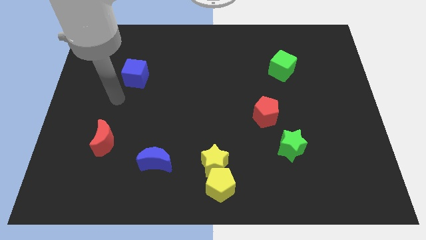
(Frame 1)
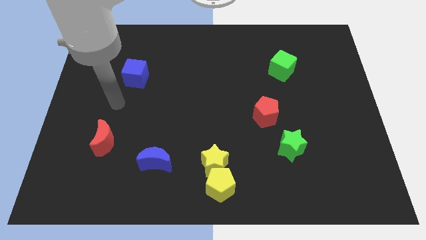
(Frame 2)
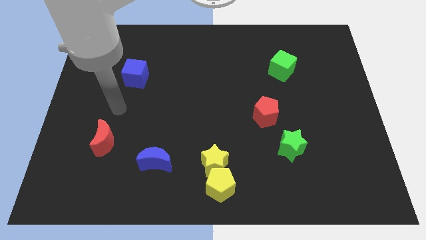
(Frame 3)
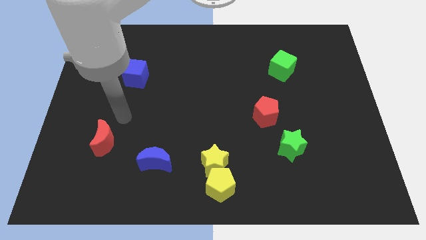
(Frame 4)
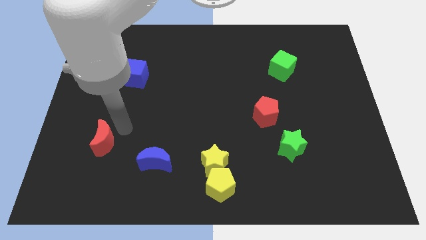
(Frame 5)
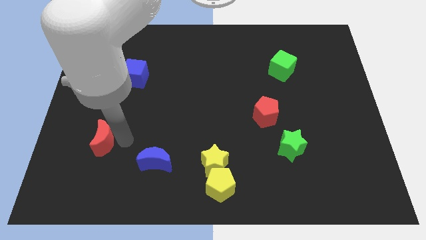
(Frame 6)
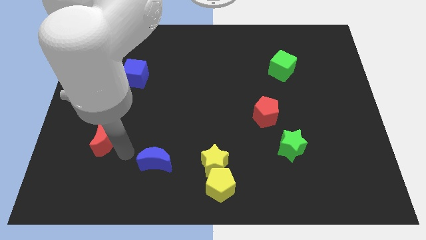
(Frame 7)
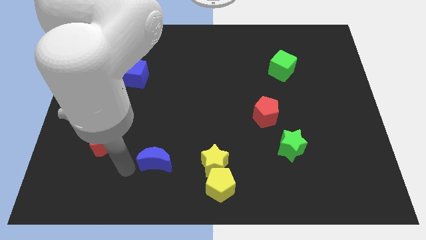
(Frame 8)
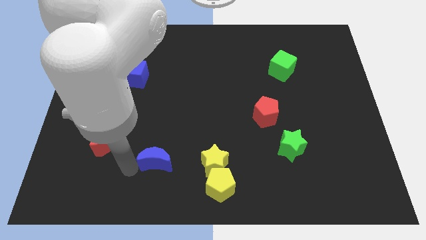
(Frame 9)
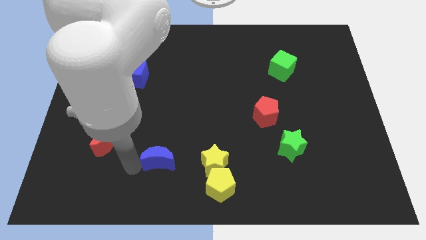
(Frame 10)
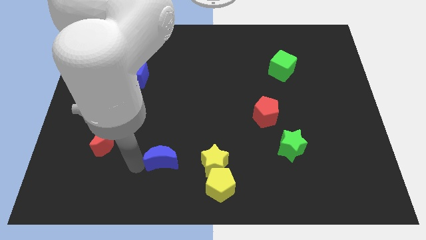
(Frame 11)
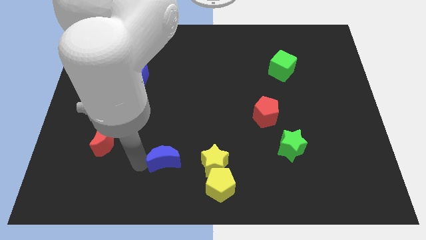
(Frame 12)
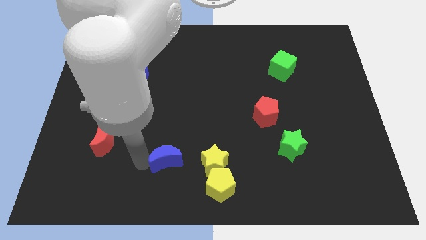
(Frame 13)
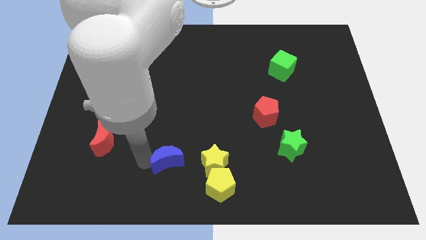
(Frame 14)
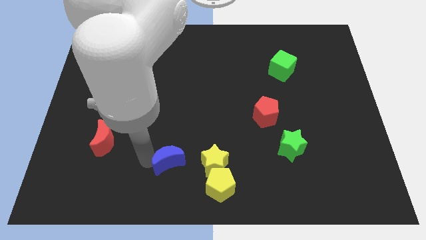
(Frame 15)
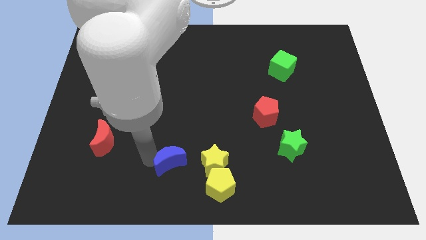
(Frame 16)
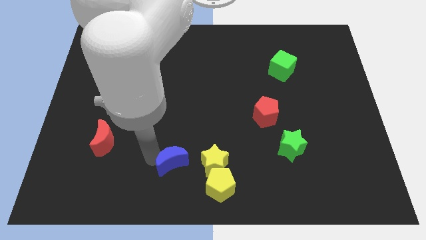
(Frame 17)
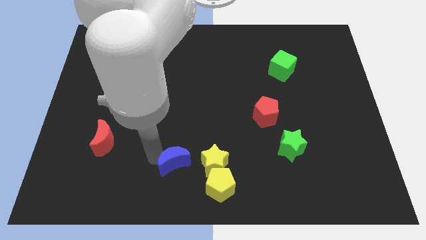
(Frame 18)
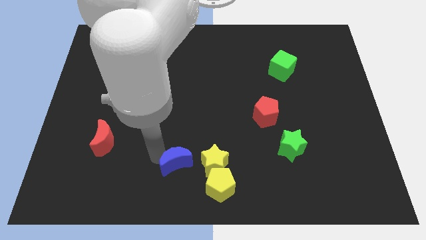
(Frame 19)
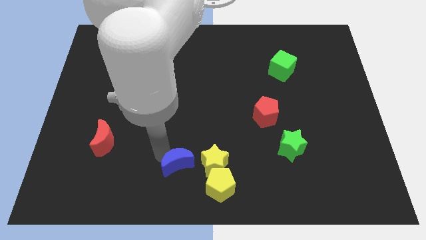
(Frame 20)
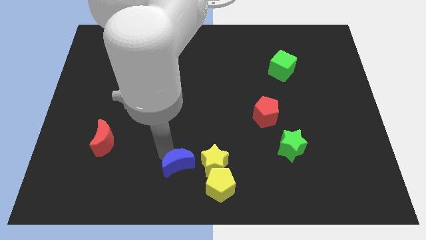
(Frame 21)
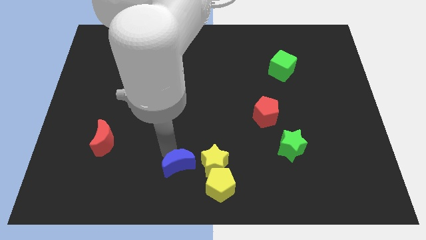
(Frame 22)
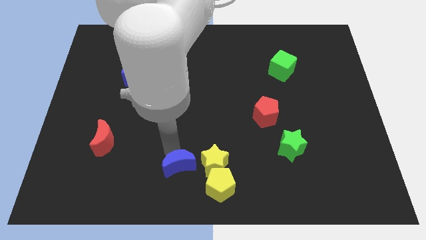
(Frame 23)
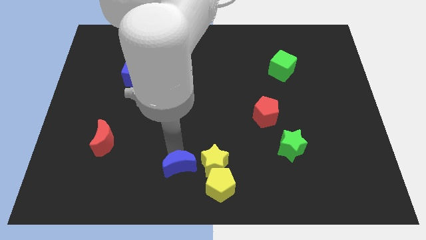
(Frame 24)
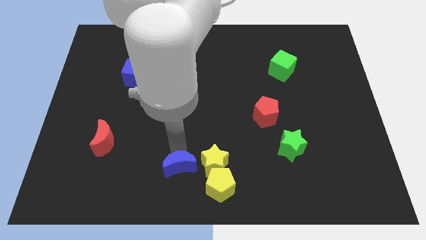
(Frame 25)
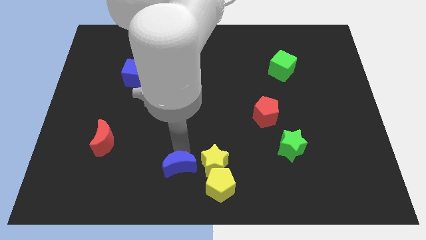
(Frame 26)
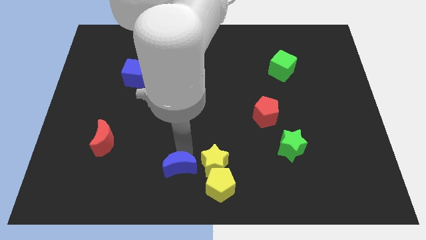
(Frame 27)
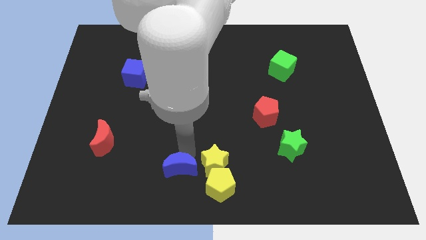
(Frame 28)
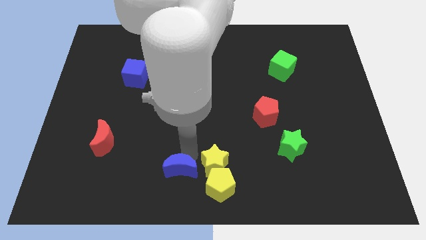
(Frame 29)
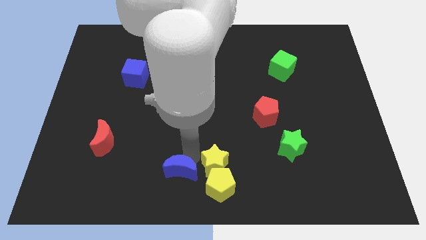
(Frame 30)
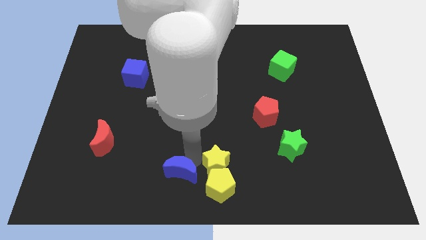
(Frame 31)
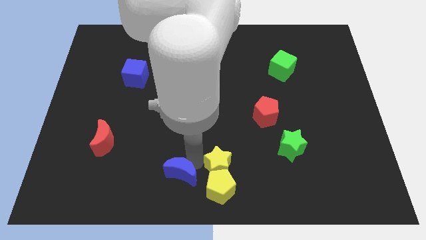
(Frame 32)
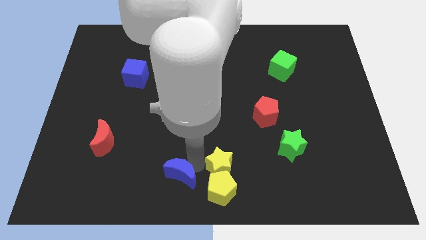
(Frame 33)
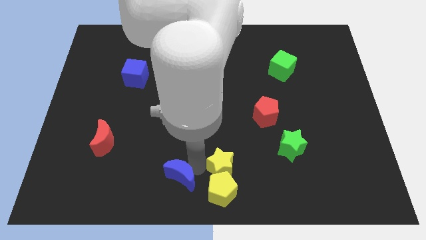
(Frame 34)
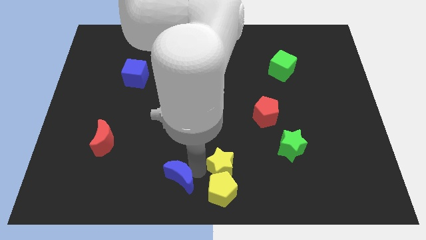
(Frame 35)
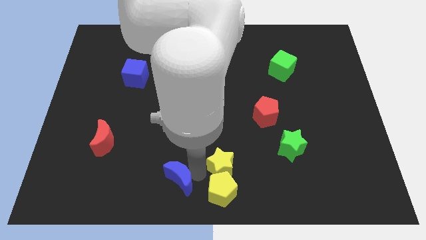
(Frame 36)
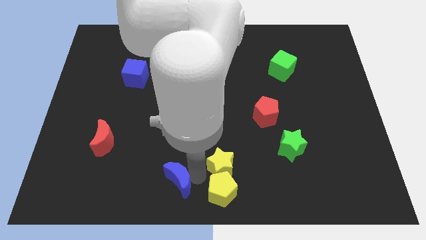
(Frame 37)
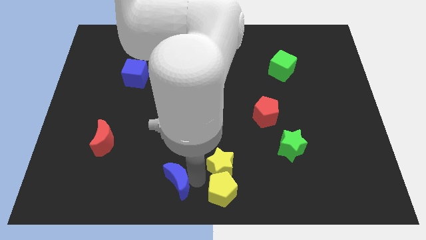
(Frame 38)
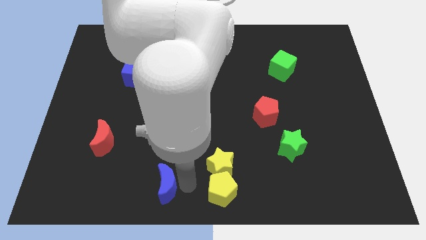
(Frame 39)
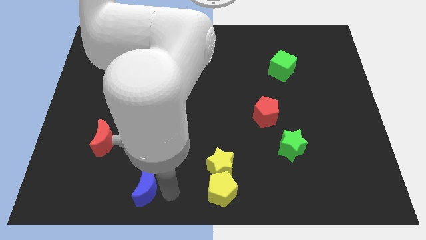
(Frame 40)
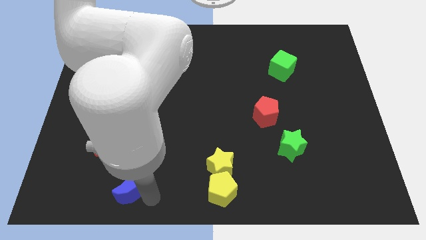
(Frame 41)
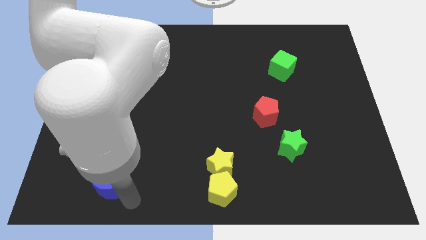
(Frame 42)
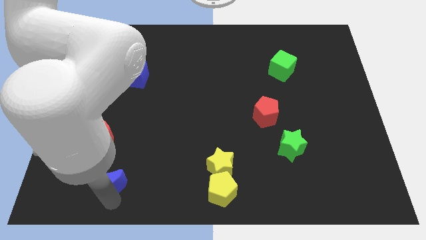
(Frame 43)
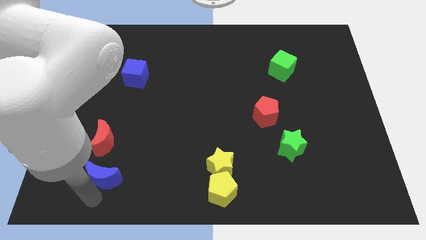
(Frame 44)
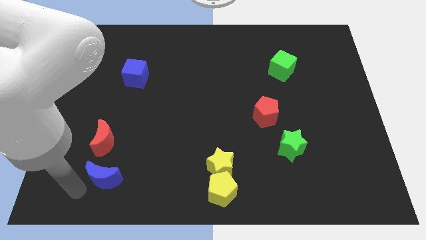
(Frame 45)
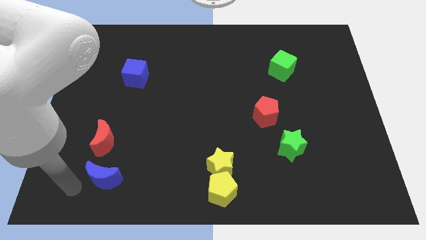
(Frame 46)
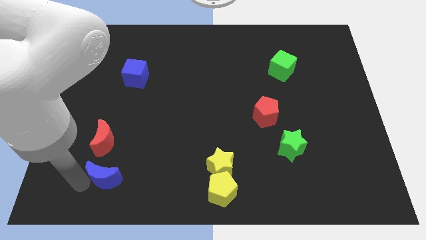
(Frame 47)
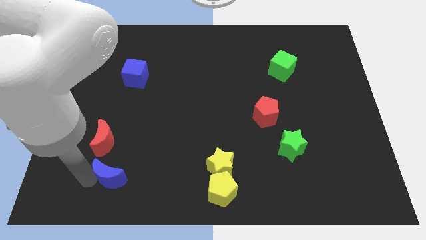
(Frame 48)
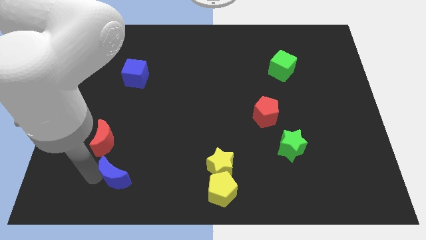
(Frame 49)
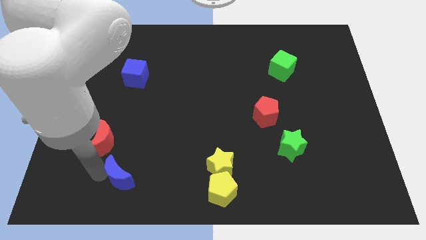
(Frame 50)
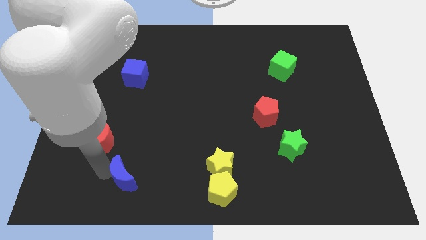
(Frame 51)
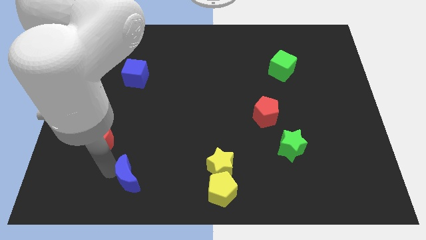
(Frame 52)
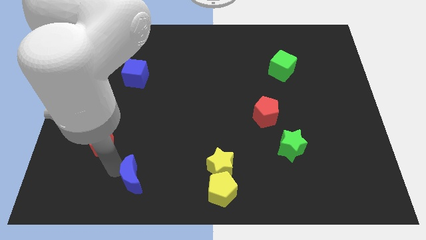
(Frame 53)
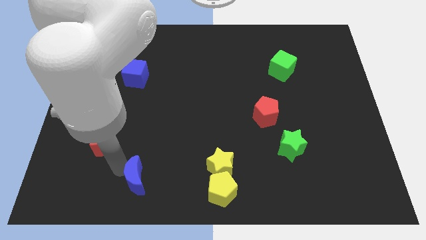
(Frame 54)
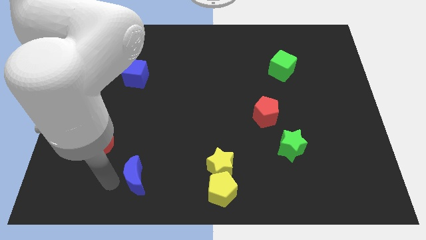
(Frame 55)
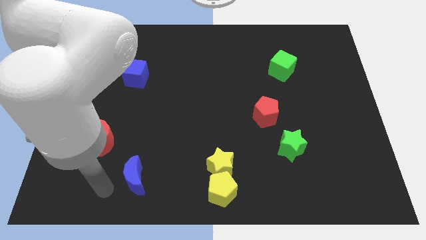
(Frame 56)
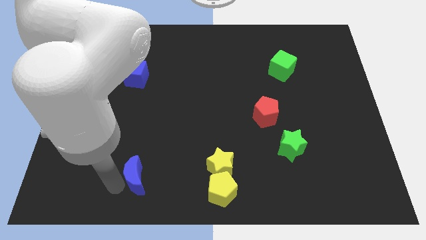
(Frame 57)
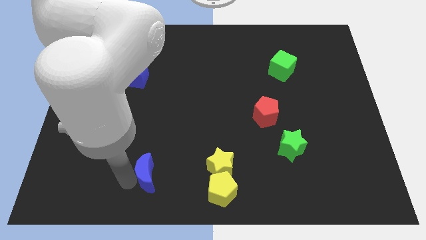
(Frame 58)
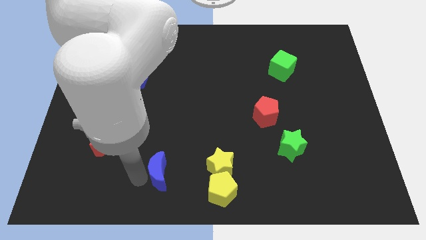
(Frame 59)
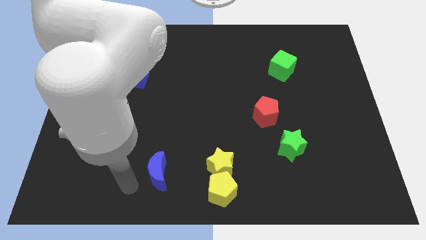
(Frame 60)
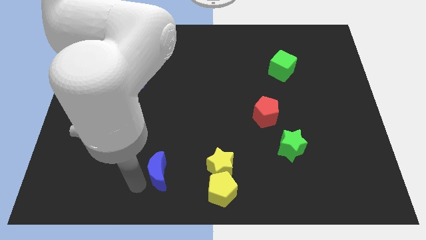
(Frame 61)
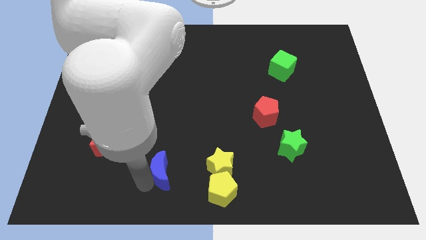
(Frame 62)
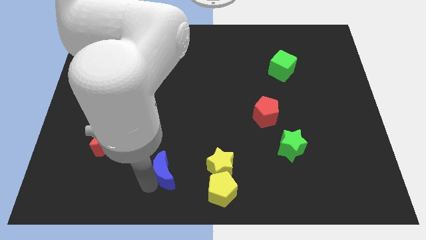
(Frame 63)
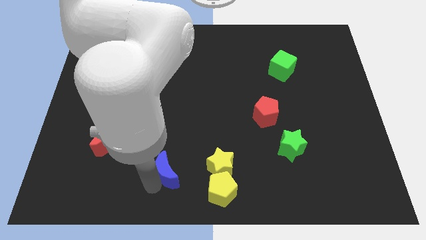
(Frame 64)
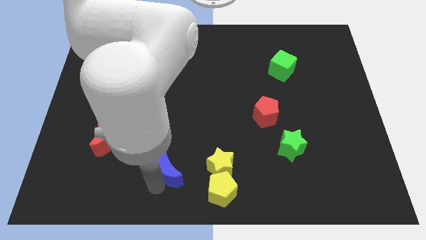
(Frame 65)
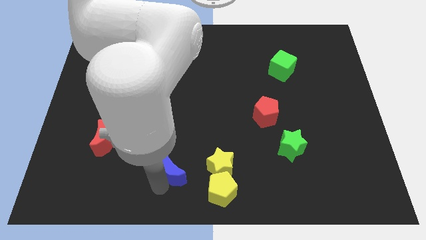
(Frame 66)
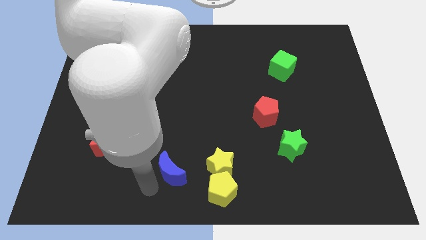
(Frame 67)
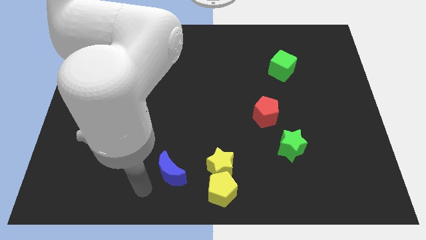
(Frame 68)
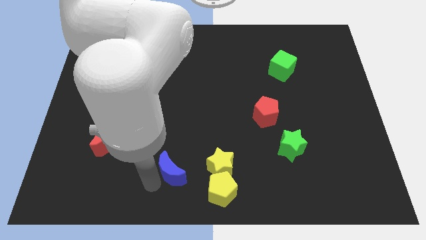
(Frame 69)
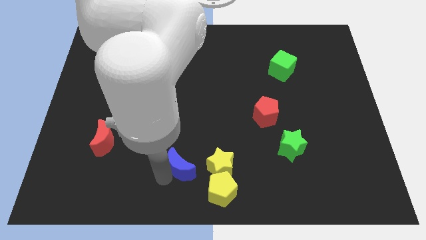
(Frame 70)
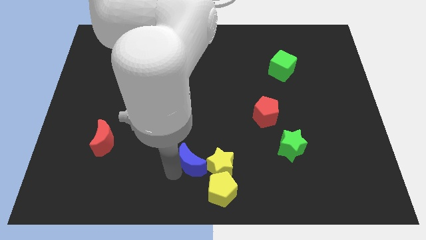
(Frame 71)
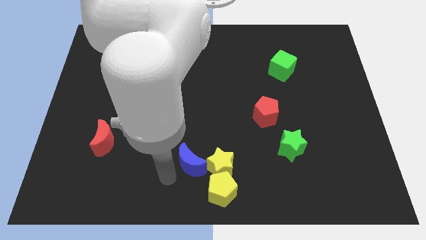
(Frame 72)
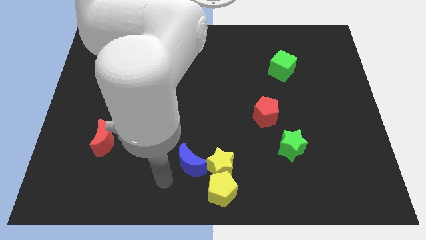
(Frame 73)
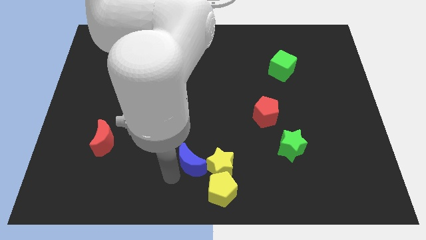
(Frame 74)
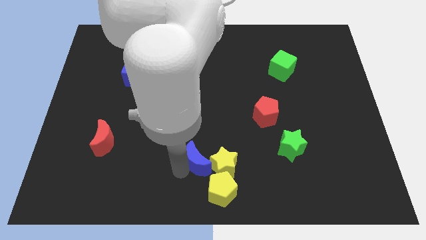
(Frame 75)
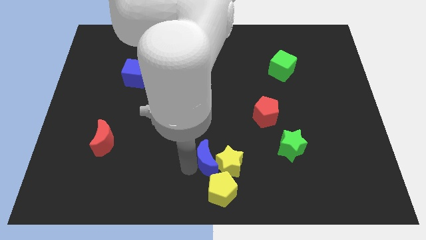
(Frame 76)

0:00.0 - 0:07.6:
slide the blue moon to the top side of the yellow pentagon
